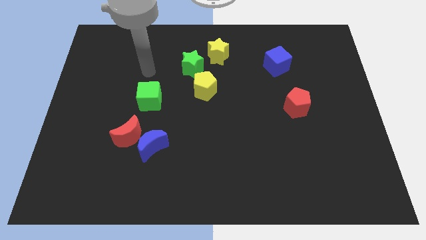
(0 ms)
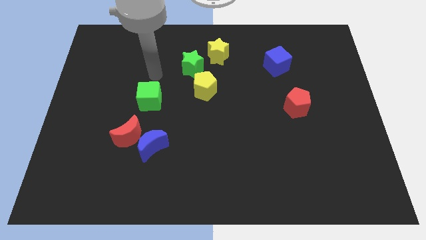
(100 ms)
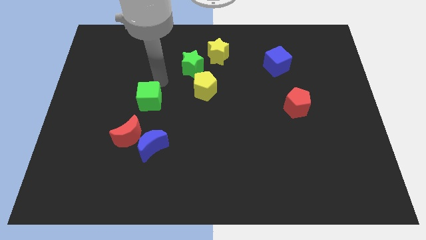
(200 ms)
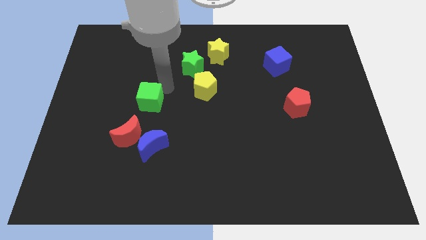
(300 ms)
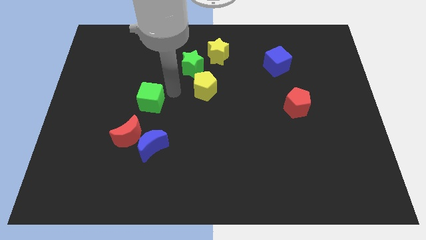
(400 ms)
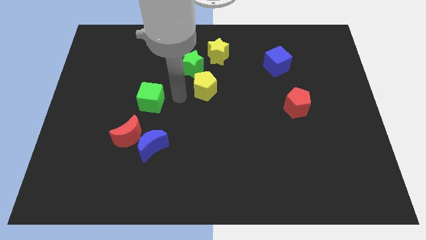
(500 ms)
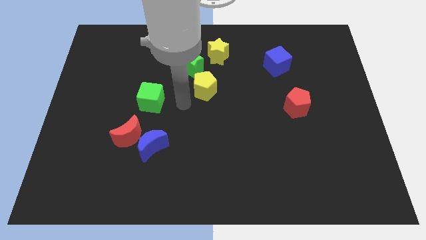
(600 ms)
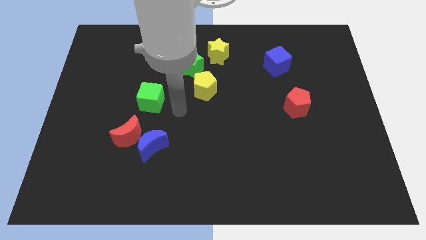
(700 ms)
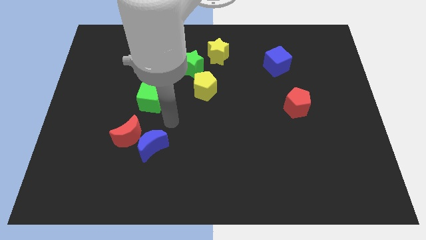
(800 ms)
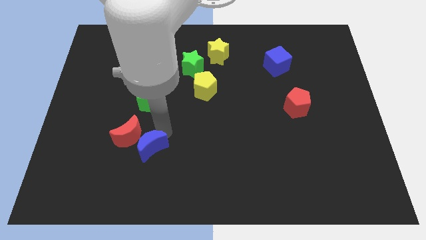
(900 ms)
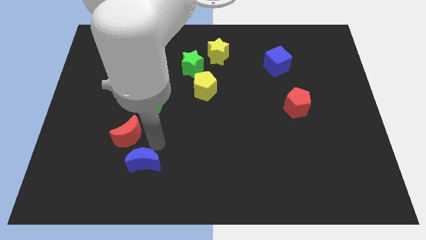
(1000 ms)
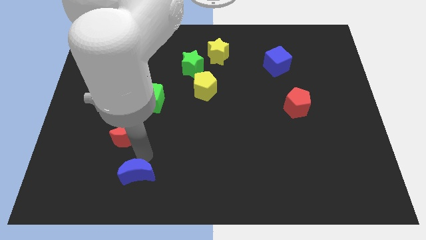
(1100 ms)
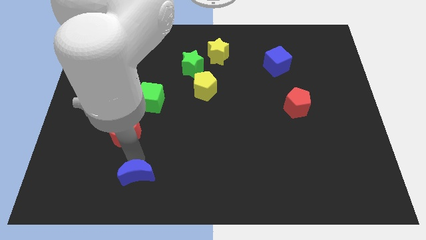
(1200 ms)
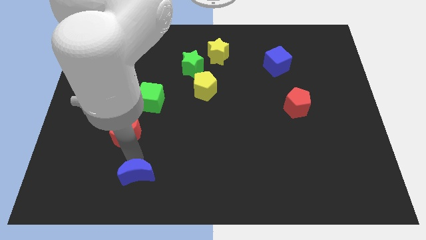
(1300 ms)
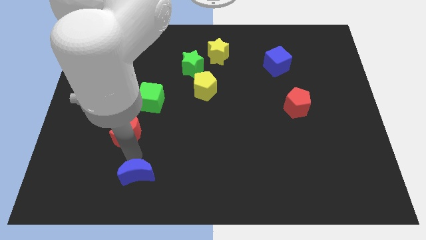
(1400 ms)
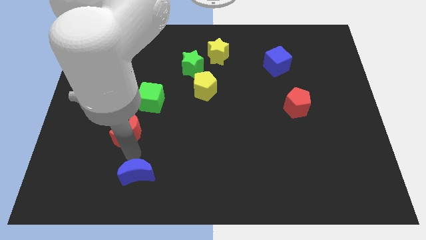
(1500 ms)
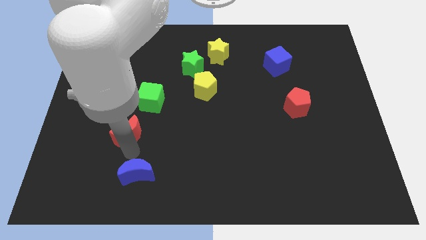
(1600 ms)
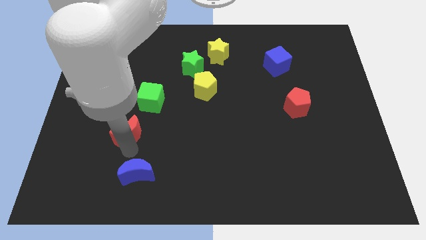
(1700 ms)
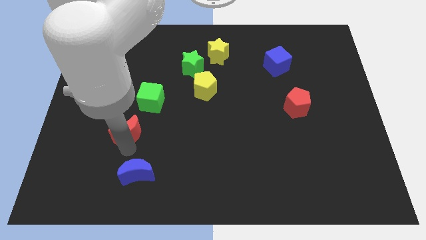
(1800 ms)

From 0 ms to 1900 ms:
move the red moon away from the blue moon

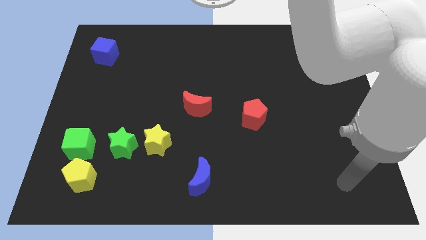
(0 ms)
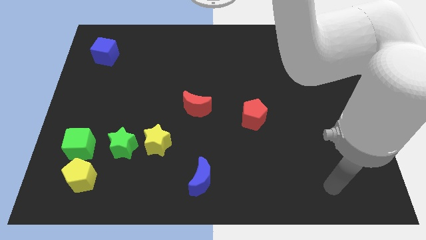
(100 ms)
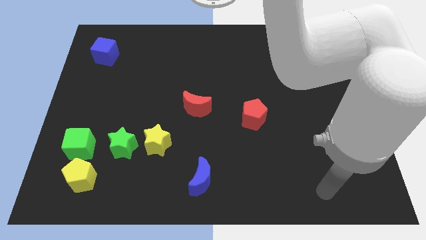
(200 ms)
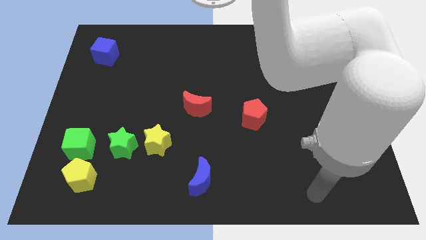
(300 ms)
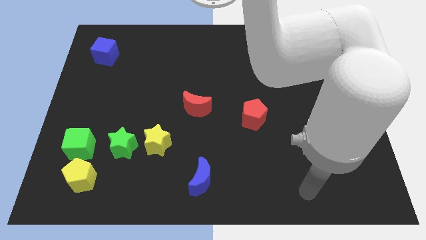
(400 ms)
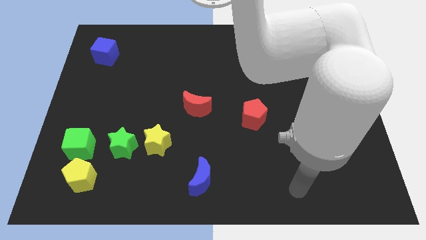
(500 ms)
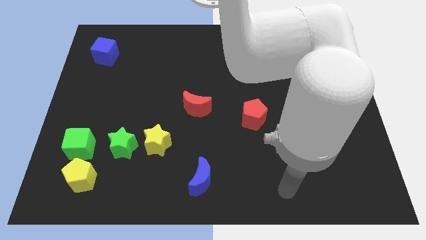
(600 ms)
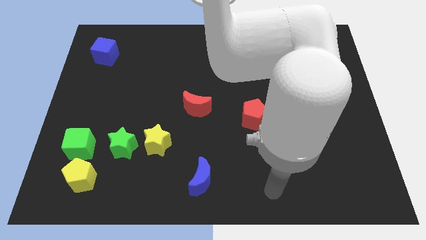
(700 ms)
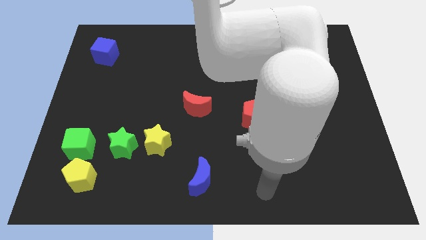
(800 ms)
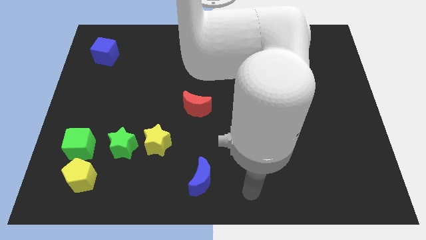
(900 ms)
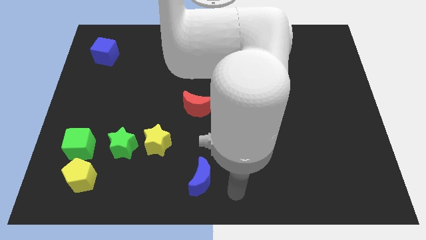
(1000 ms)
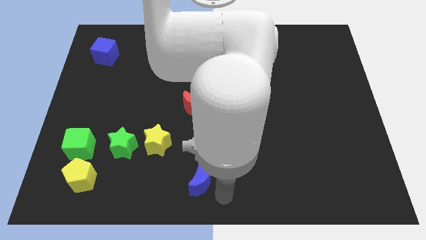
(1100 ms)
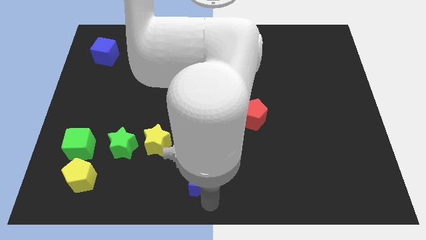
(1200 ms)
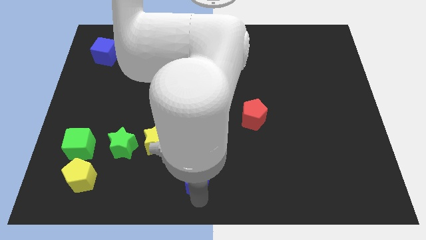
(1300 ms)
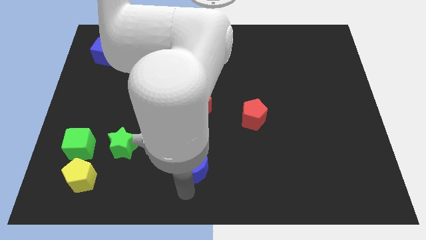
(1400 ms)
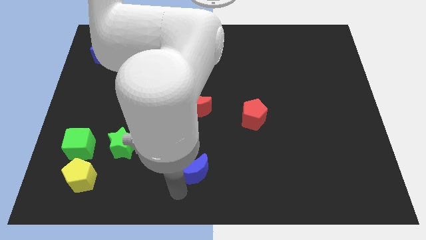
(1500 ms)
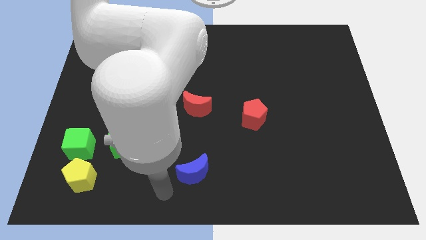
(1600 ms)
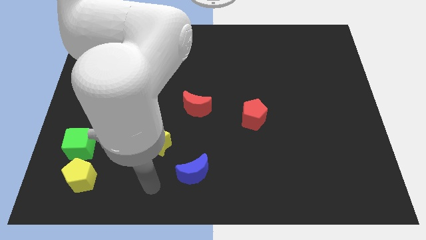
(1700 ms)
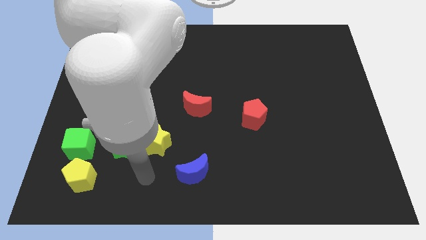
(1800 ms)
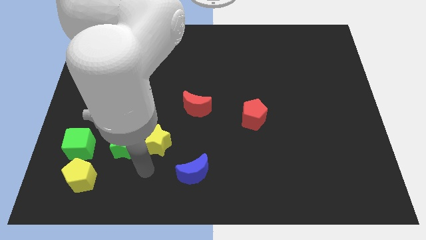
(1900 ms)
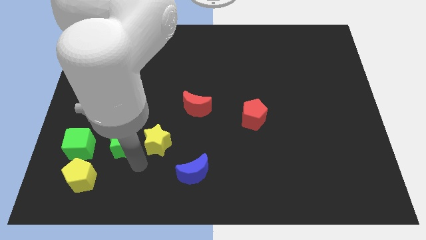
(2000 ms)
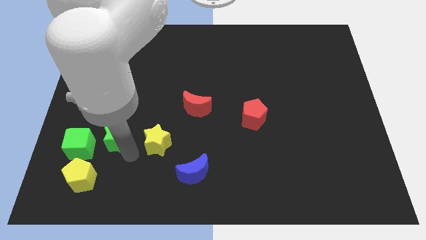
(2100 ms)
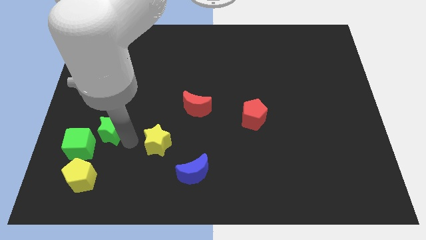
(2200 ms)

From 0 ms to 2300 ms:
move the yellow star away from the green star

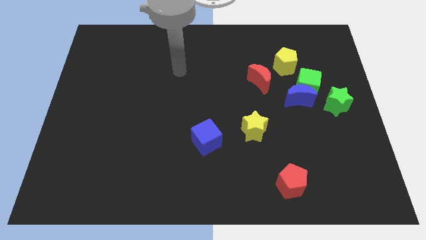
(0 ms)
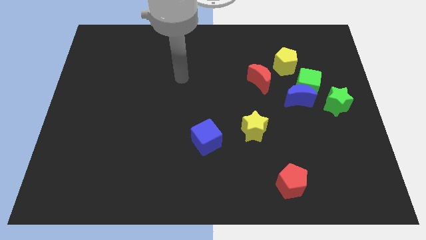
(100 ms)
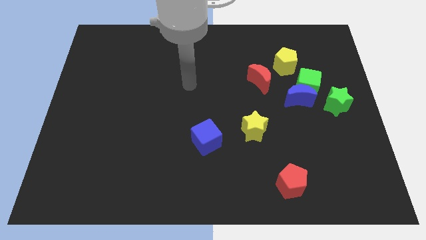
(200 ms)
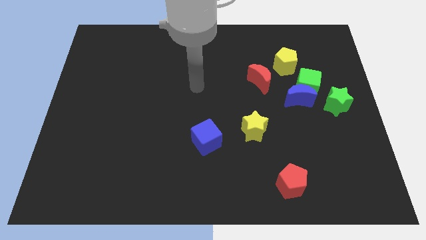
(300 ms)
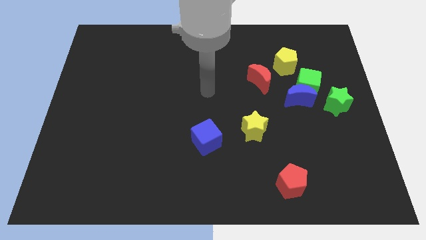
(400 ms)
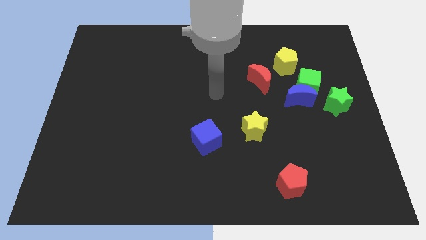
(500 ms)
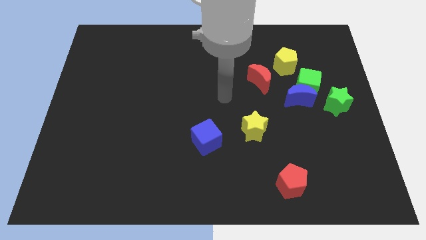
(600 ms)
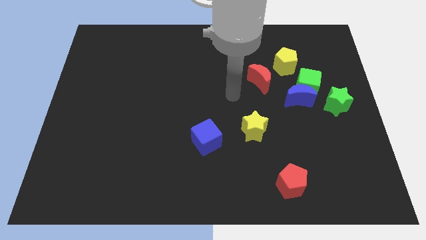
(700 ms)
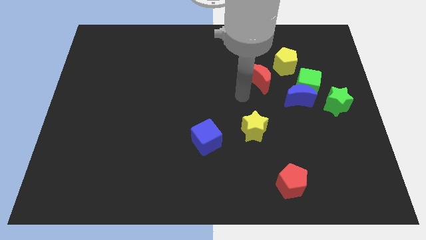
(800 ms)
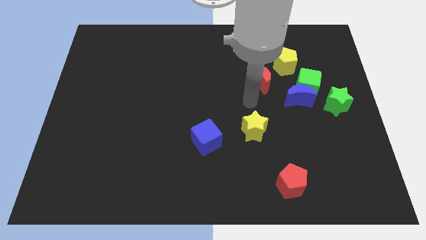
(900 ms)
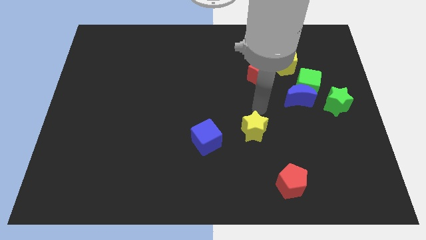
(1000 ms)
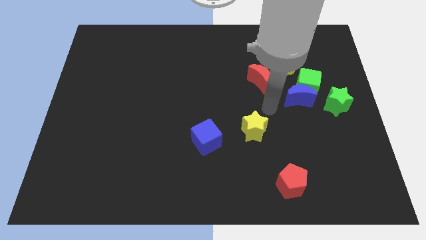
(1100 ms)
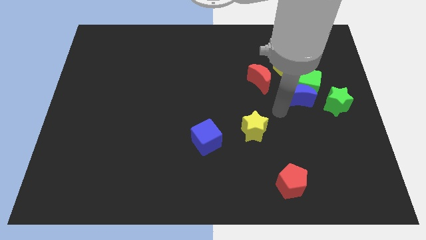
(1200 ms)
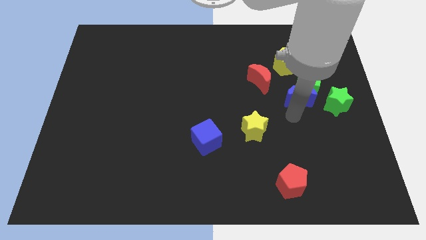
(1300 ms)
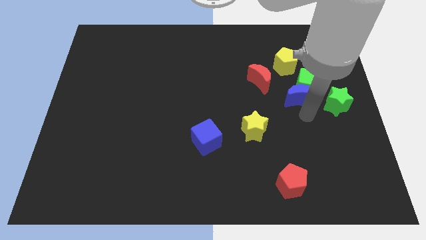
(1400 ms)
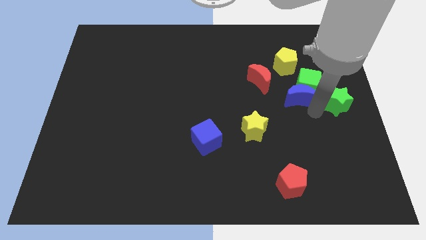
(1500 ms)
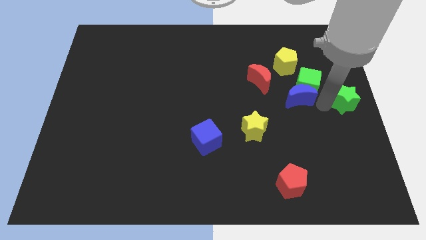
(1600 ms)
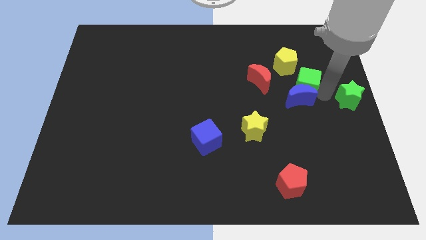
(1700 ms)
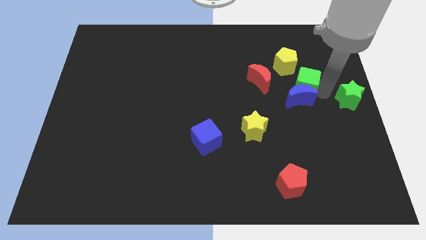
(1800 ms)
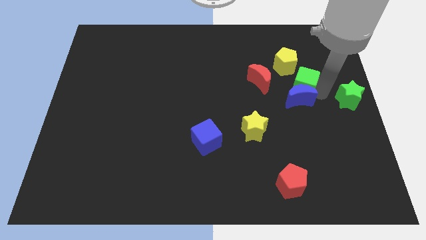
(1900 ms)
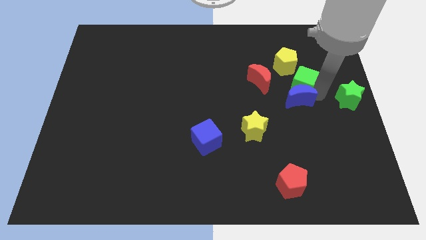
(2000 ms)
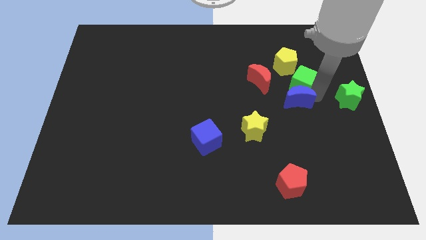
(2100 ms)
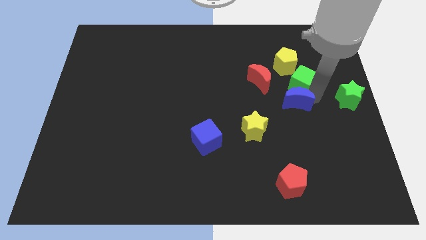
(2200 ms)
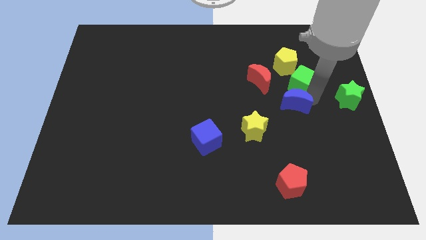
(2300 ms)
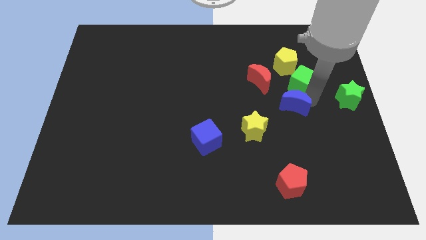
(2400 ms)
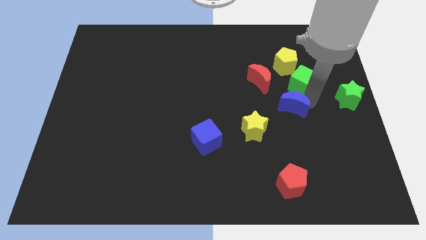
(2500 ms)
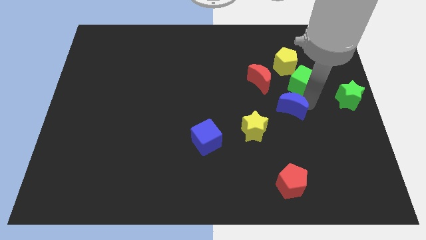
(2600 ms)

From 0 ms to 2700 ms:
separate the blue moon from the green cube and green star

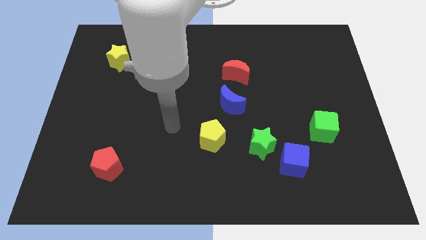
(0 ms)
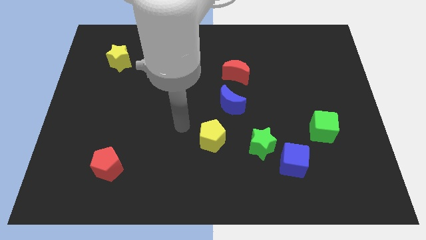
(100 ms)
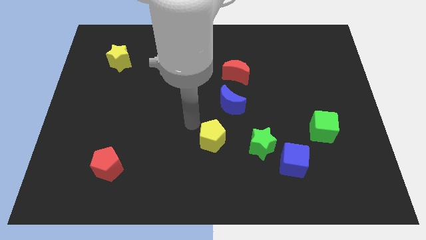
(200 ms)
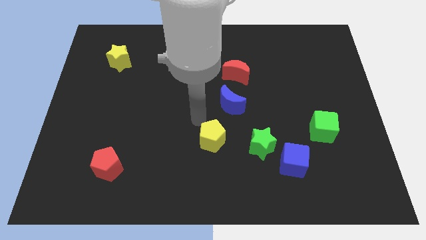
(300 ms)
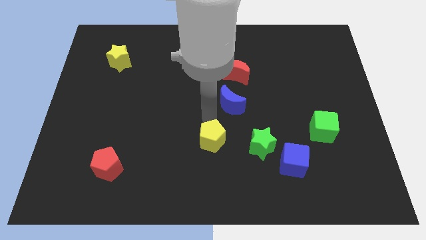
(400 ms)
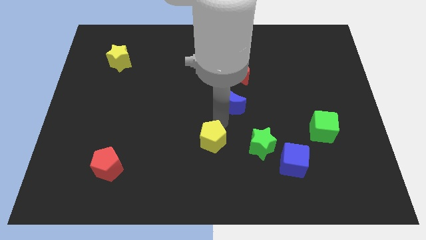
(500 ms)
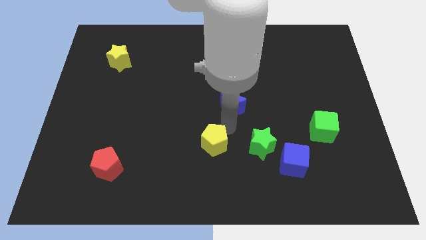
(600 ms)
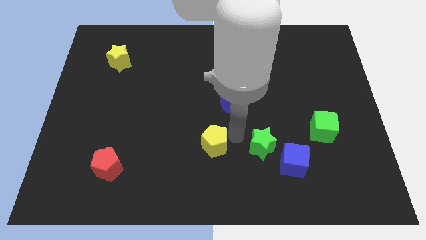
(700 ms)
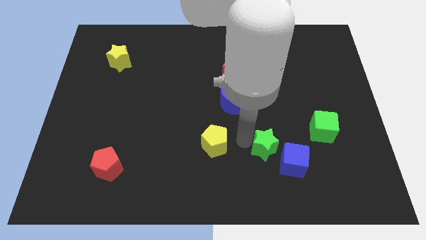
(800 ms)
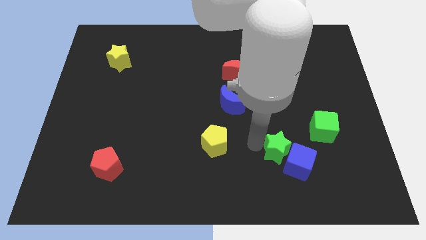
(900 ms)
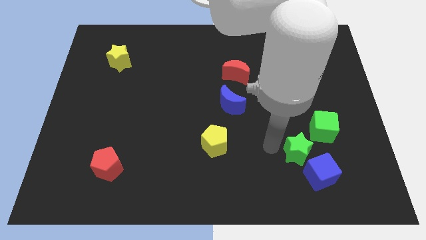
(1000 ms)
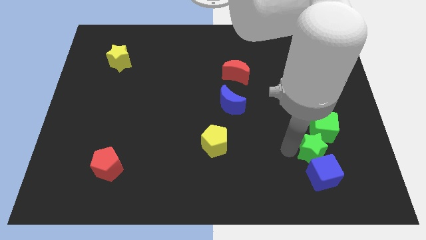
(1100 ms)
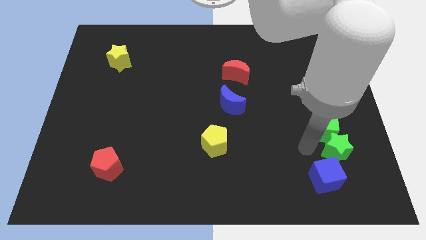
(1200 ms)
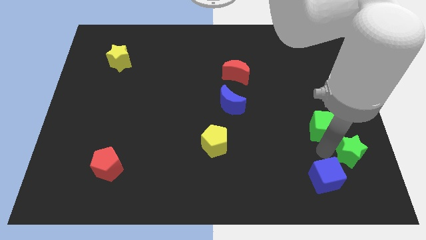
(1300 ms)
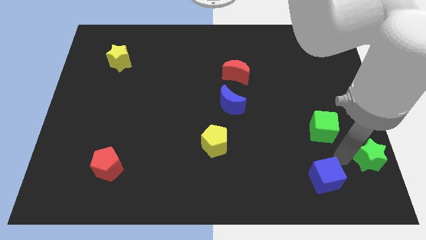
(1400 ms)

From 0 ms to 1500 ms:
move the blue cube away from the green star

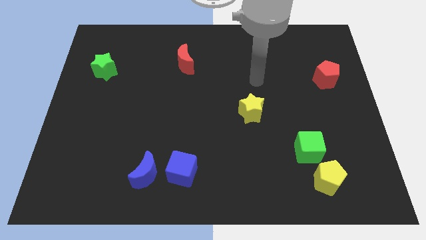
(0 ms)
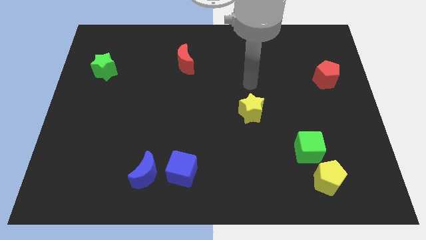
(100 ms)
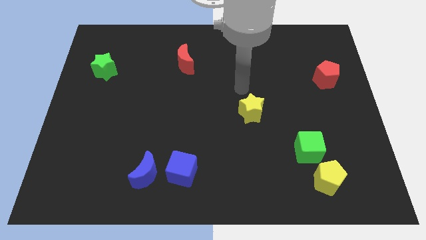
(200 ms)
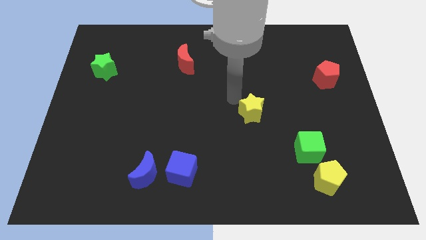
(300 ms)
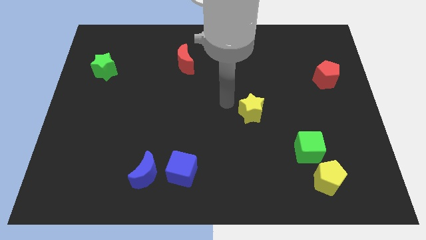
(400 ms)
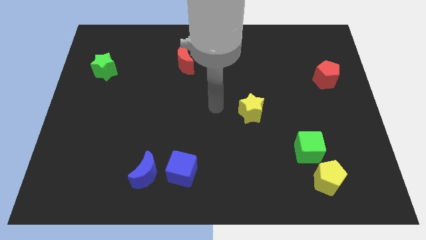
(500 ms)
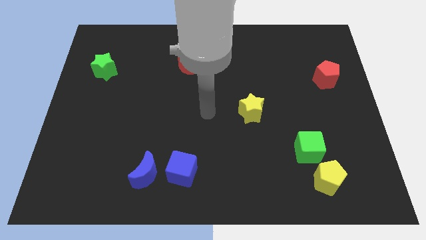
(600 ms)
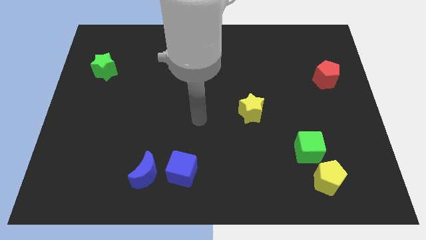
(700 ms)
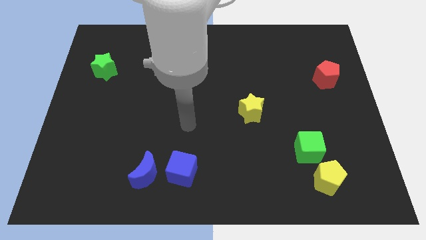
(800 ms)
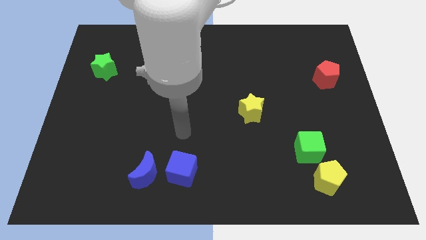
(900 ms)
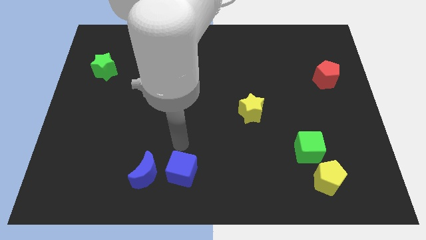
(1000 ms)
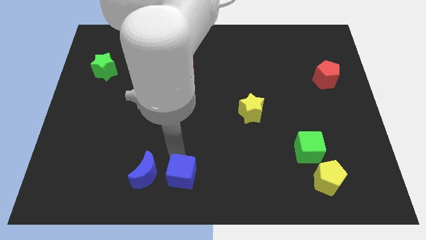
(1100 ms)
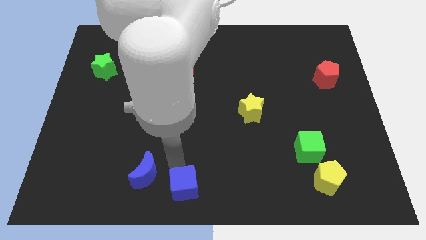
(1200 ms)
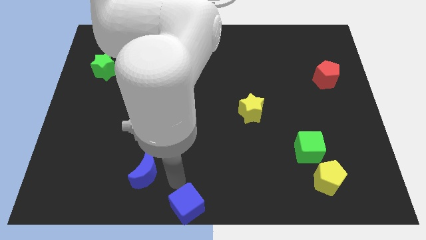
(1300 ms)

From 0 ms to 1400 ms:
move the blue moon away from the blue cube
